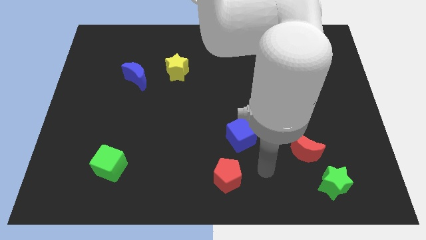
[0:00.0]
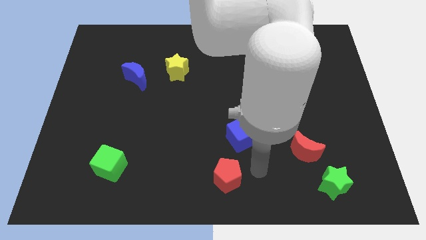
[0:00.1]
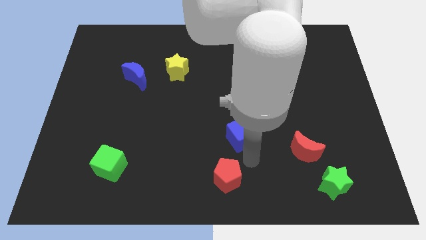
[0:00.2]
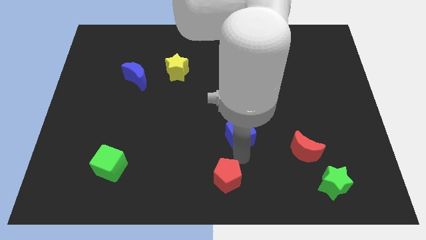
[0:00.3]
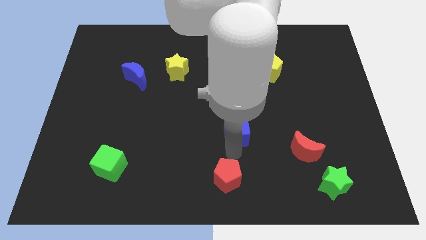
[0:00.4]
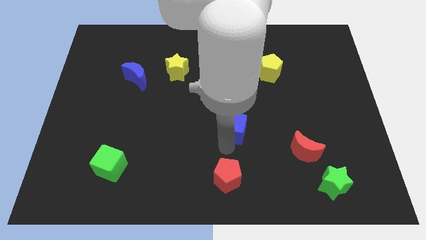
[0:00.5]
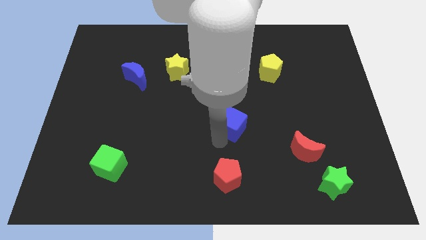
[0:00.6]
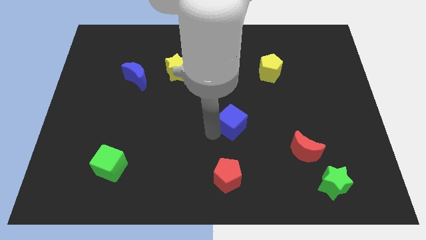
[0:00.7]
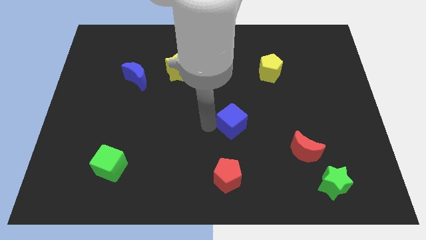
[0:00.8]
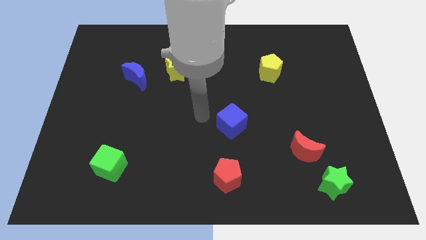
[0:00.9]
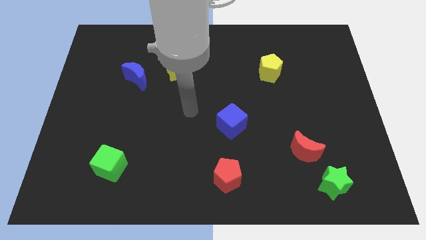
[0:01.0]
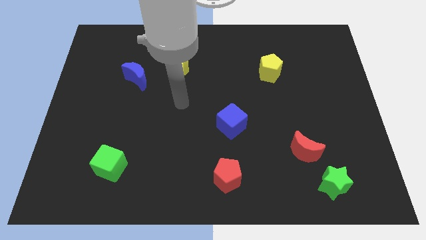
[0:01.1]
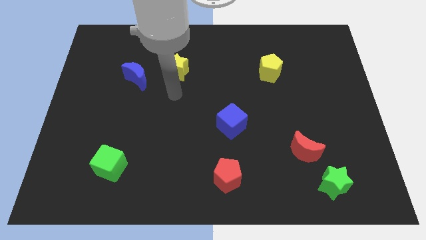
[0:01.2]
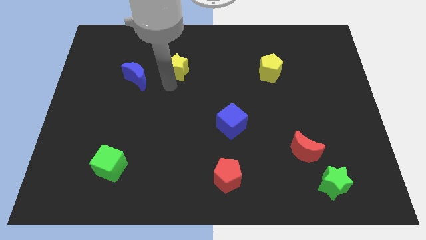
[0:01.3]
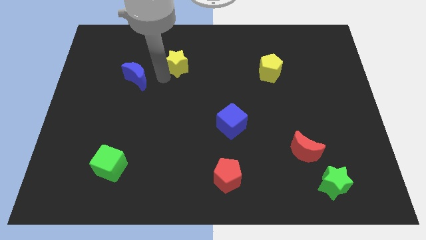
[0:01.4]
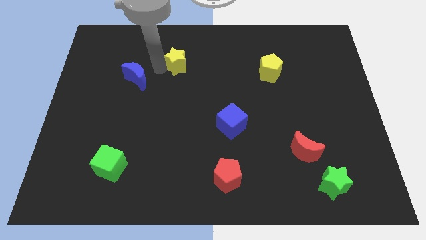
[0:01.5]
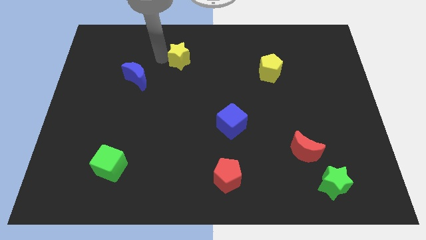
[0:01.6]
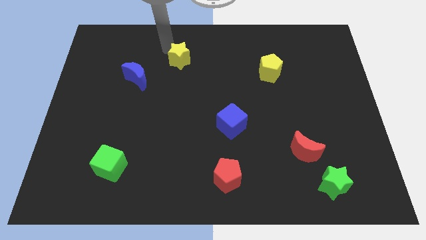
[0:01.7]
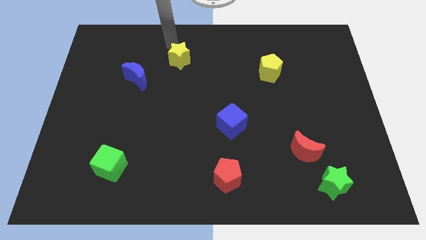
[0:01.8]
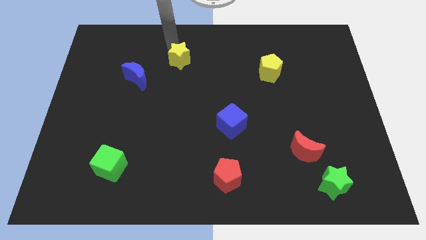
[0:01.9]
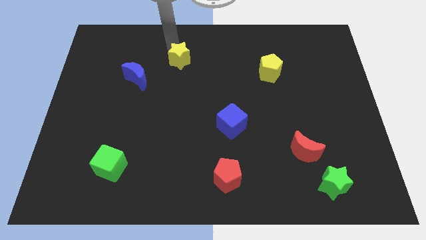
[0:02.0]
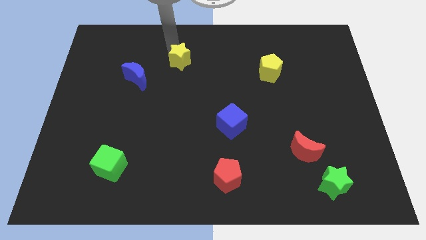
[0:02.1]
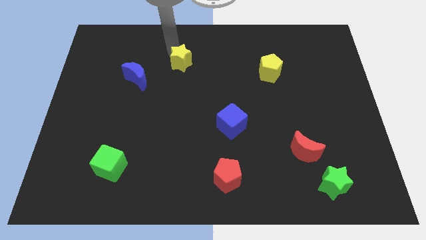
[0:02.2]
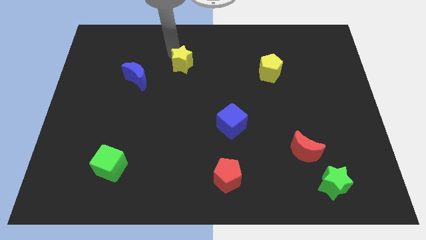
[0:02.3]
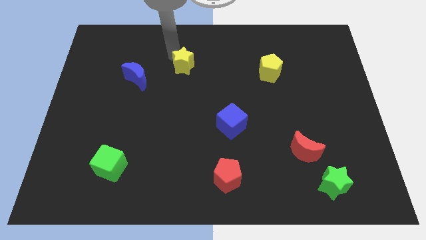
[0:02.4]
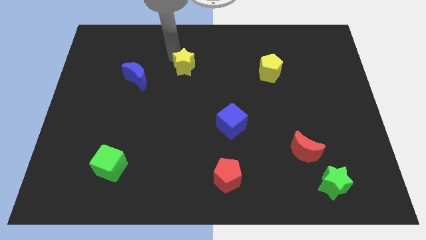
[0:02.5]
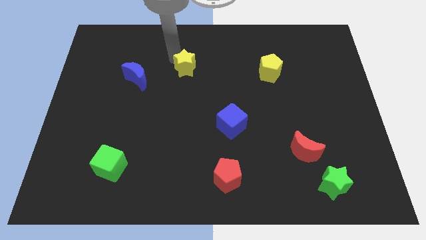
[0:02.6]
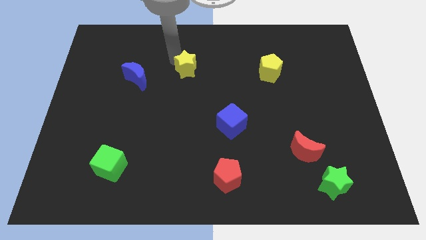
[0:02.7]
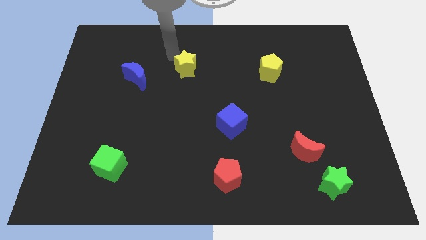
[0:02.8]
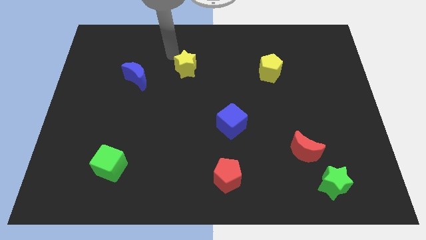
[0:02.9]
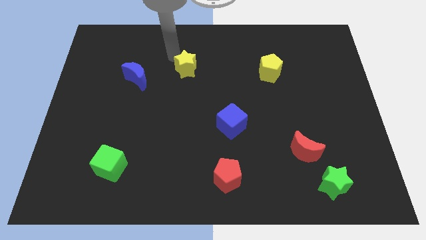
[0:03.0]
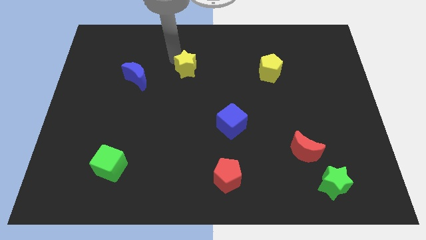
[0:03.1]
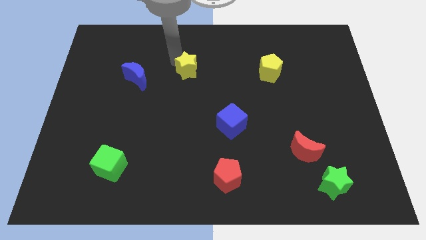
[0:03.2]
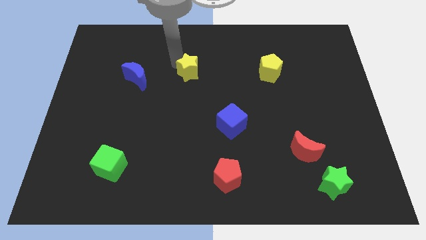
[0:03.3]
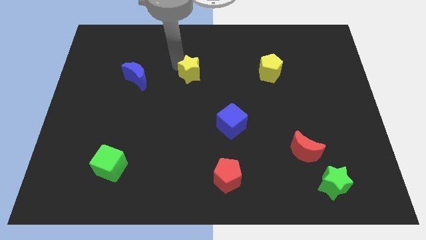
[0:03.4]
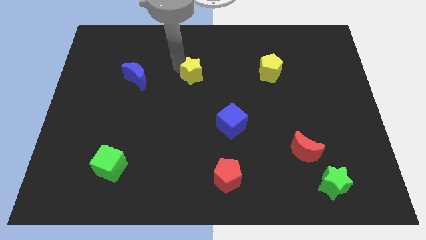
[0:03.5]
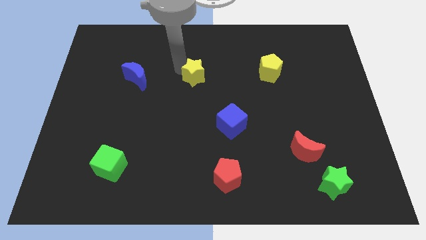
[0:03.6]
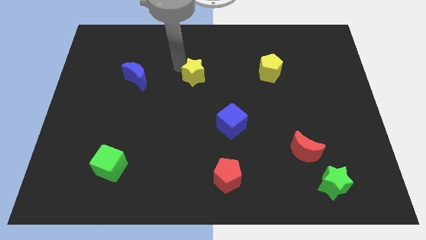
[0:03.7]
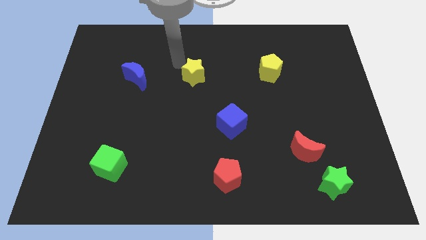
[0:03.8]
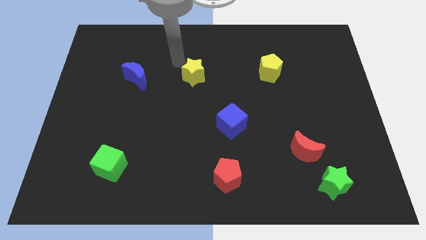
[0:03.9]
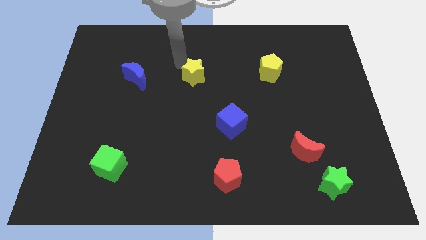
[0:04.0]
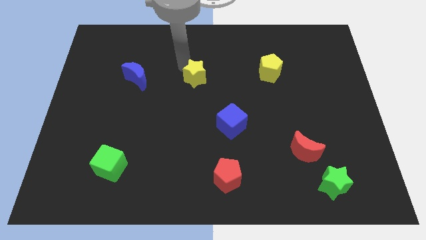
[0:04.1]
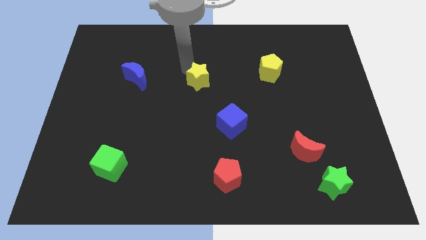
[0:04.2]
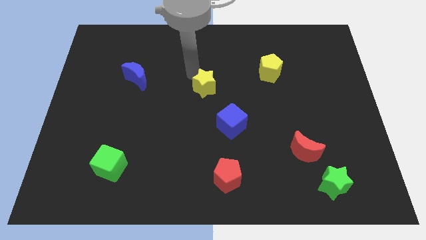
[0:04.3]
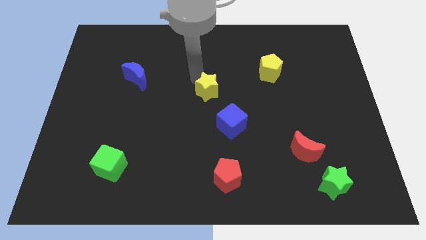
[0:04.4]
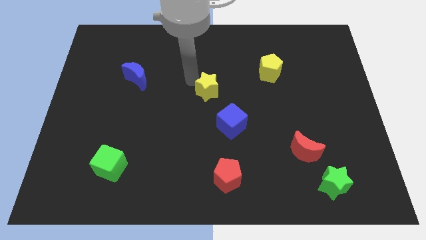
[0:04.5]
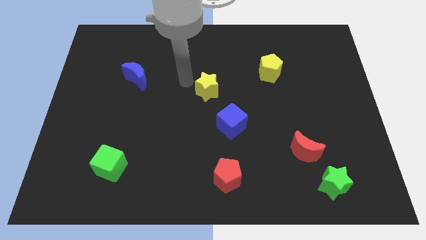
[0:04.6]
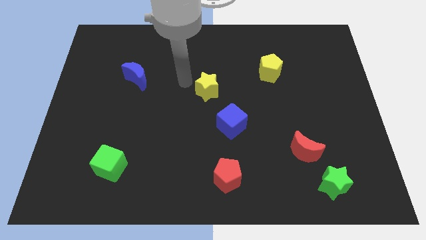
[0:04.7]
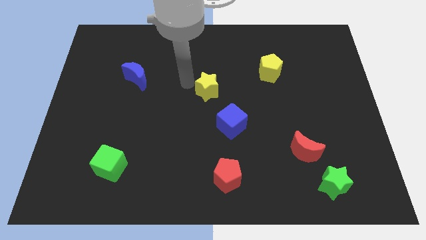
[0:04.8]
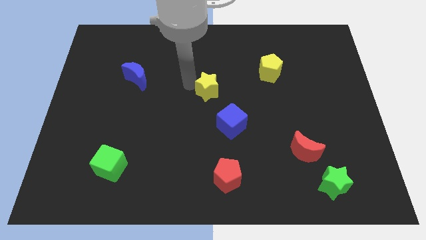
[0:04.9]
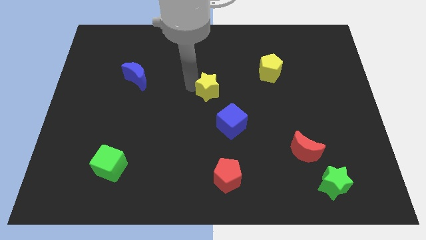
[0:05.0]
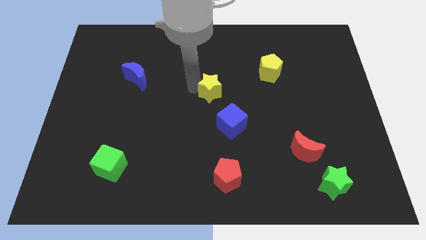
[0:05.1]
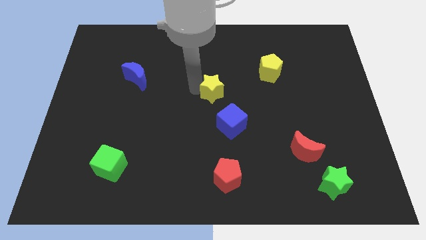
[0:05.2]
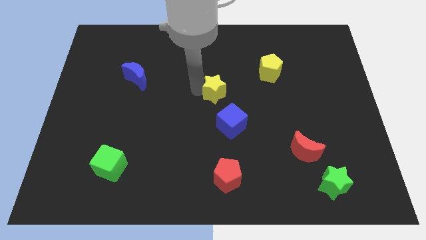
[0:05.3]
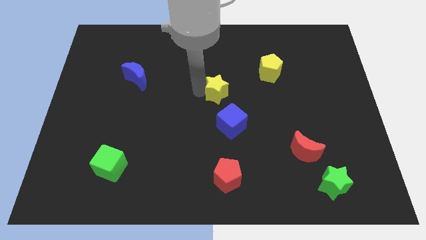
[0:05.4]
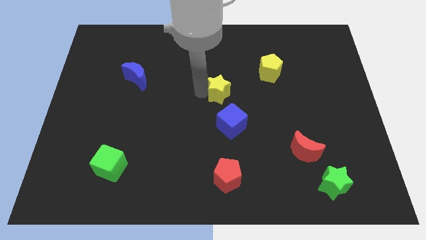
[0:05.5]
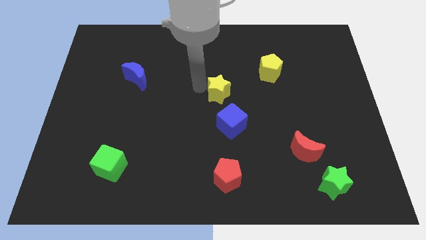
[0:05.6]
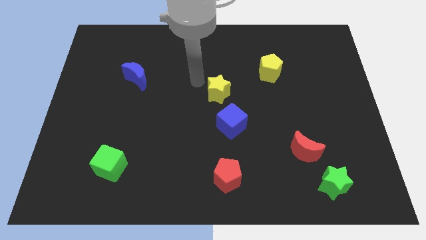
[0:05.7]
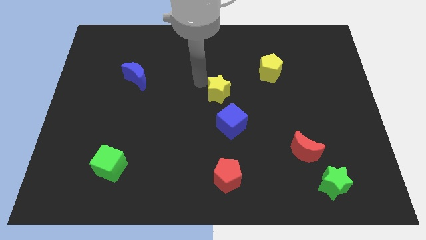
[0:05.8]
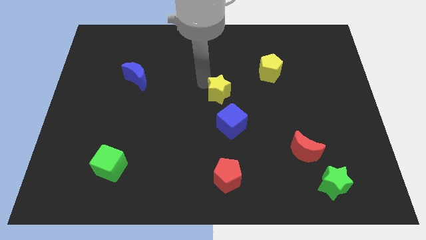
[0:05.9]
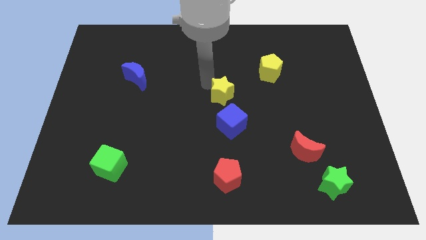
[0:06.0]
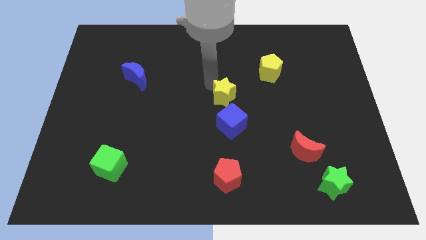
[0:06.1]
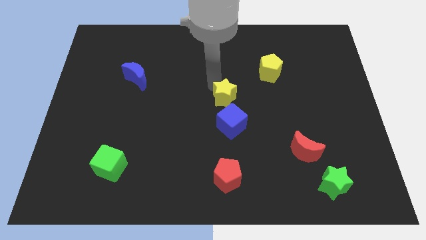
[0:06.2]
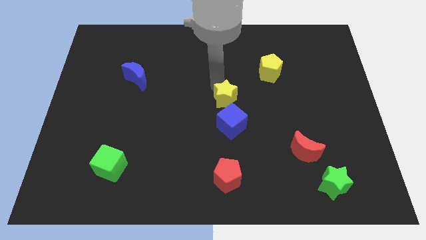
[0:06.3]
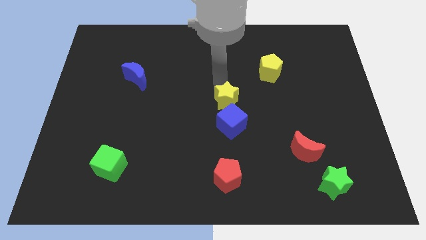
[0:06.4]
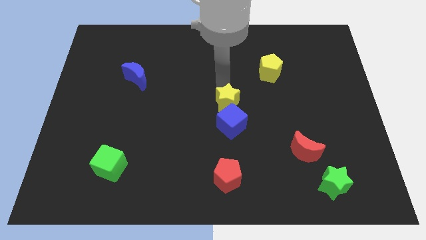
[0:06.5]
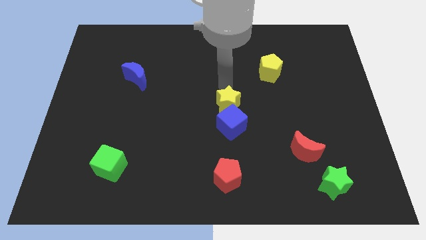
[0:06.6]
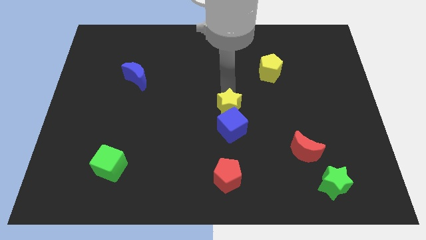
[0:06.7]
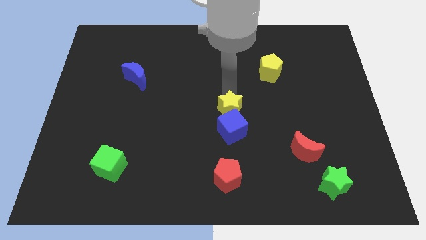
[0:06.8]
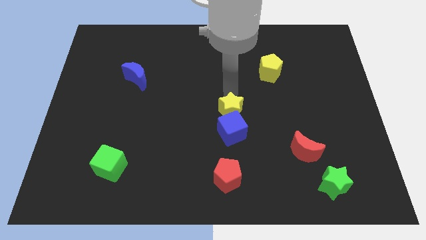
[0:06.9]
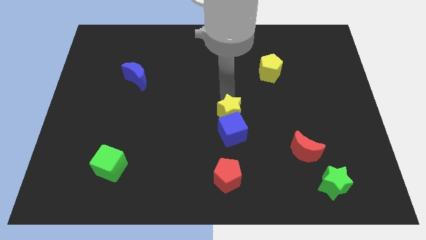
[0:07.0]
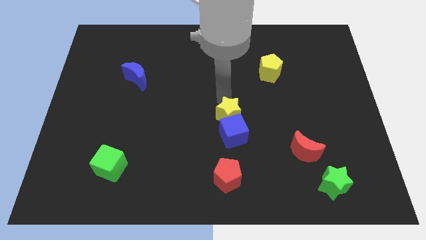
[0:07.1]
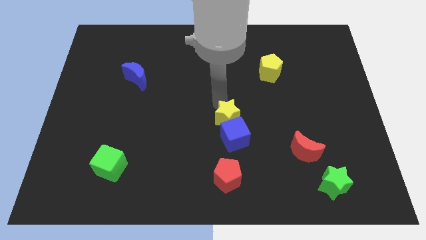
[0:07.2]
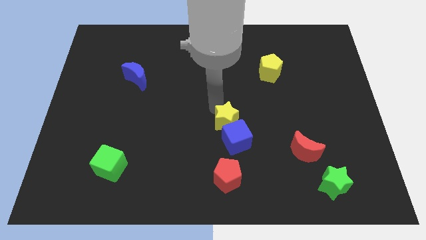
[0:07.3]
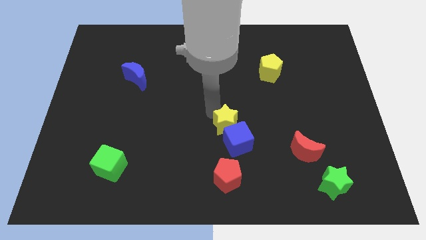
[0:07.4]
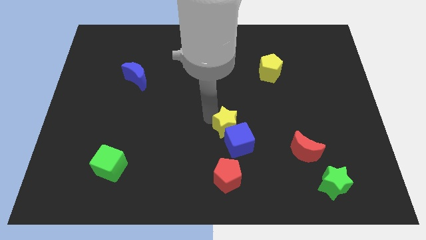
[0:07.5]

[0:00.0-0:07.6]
move the yellow star down and then right
